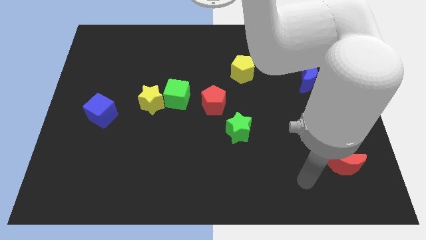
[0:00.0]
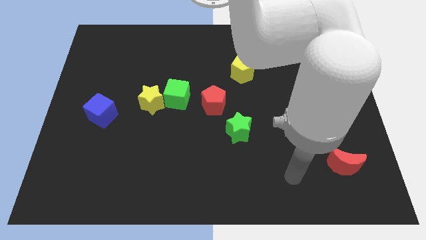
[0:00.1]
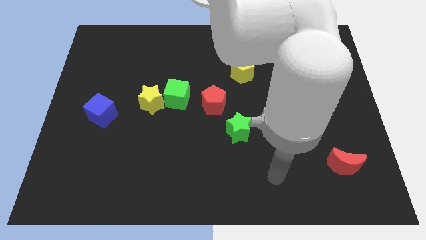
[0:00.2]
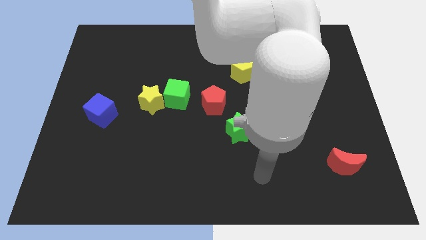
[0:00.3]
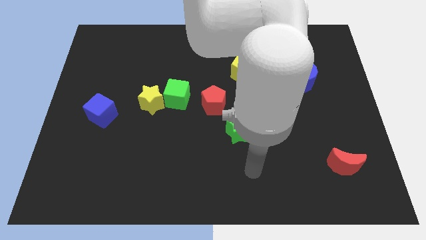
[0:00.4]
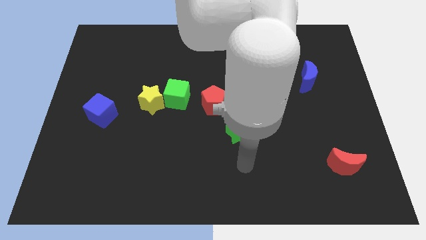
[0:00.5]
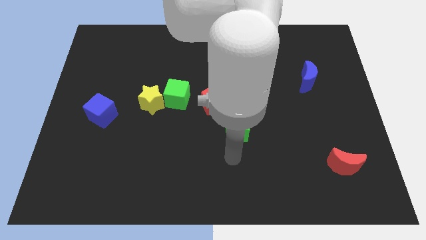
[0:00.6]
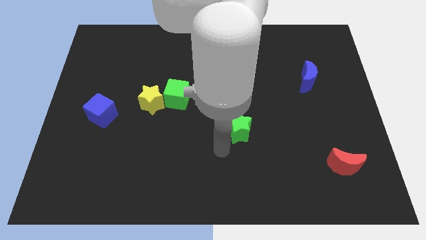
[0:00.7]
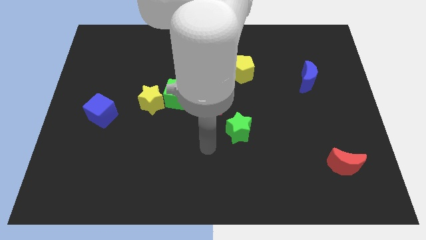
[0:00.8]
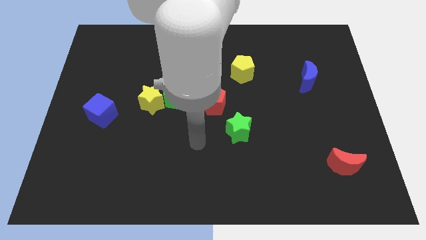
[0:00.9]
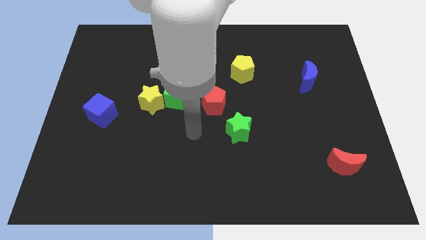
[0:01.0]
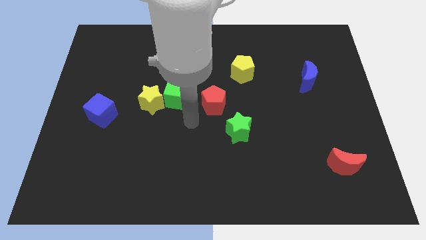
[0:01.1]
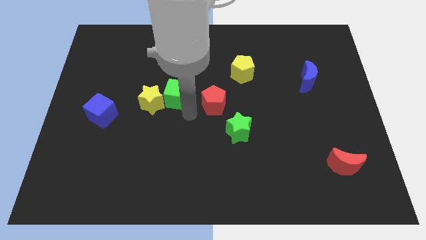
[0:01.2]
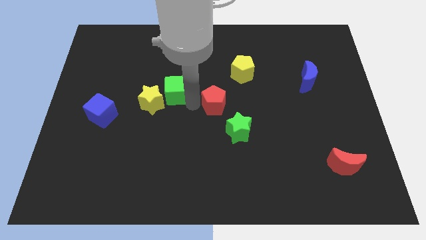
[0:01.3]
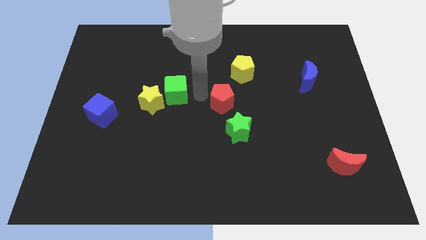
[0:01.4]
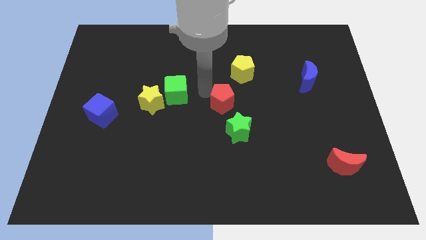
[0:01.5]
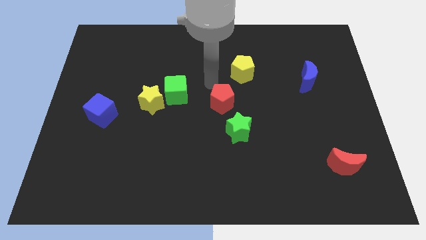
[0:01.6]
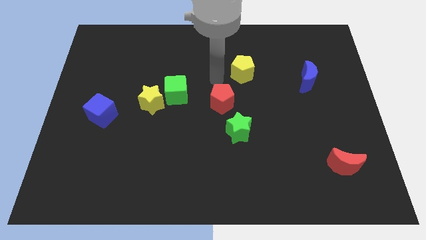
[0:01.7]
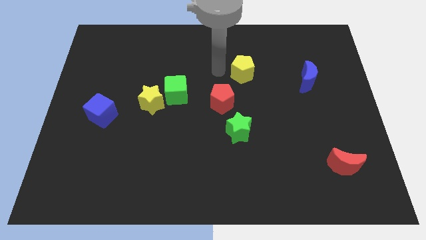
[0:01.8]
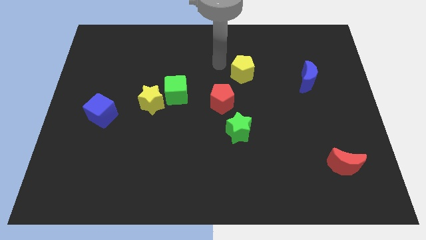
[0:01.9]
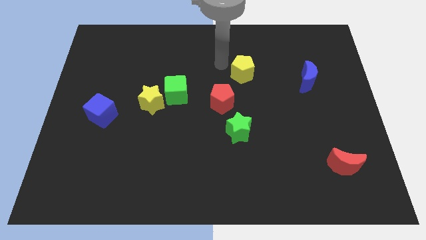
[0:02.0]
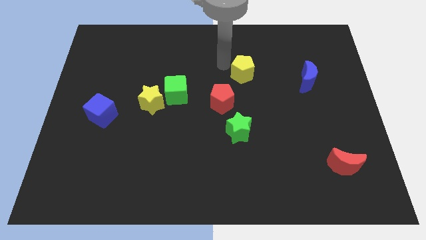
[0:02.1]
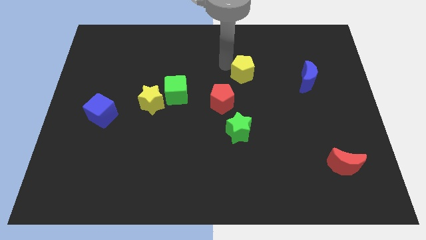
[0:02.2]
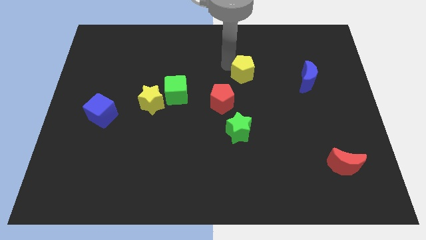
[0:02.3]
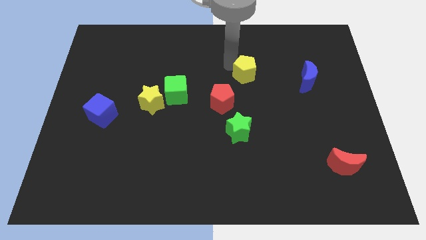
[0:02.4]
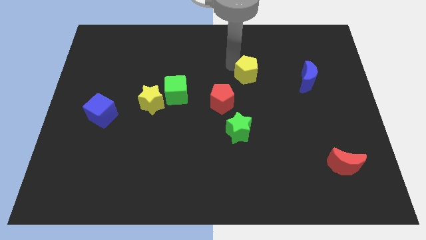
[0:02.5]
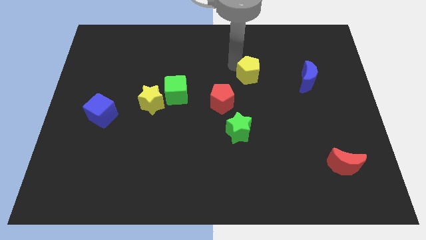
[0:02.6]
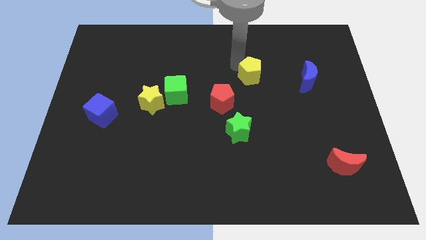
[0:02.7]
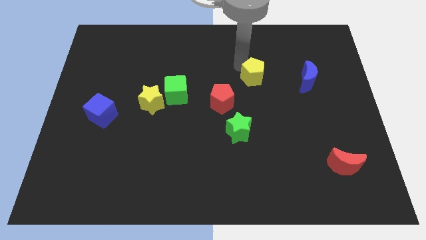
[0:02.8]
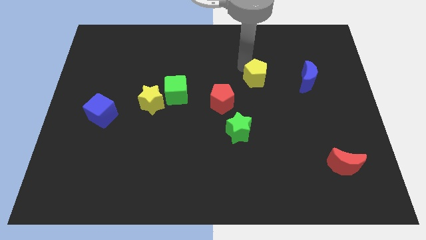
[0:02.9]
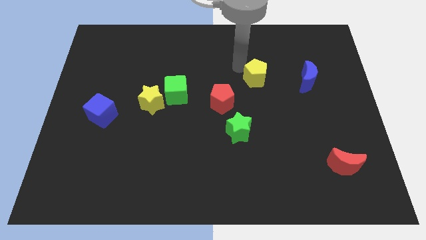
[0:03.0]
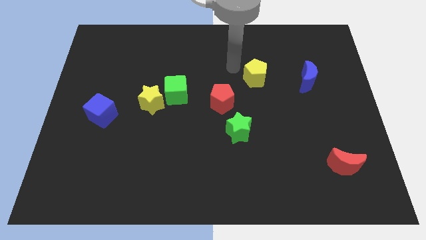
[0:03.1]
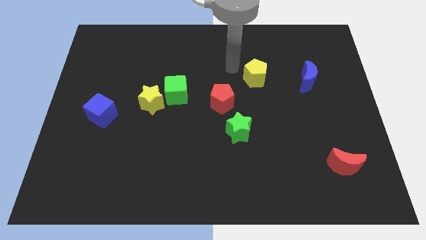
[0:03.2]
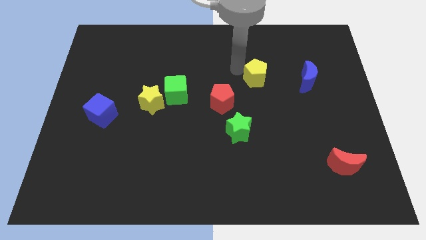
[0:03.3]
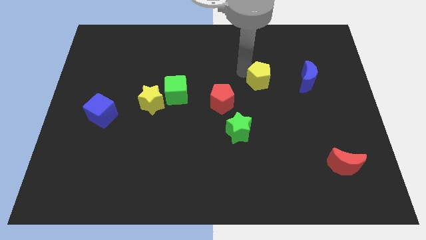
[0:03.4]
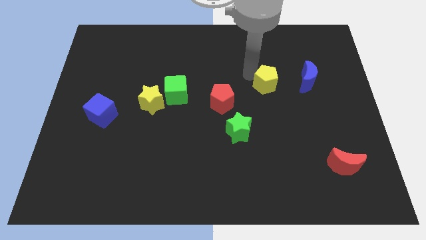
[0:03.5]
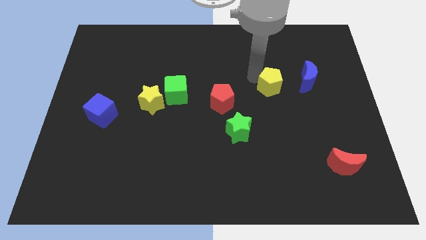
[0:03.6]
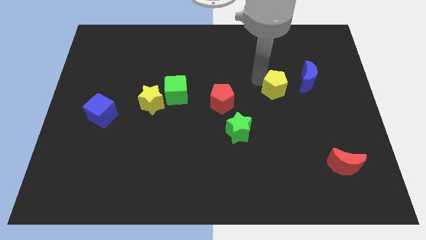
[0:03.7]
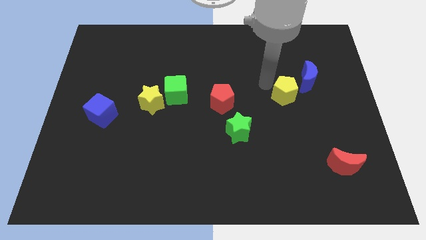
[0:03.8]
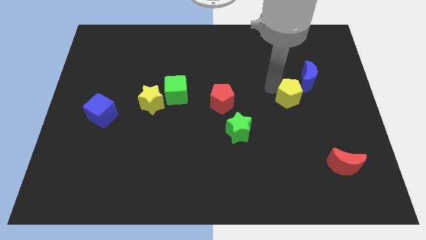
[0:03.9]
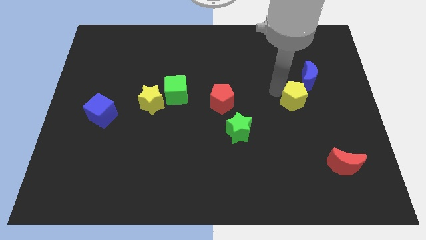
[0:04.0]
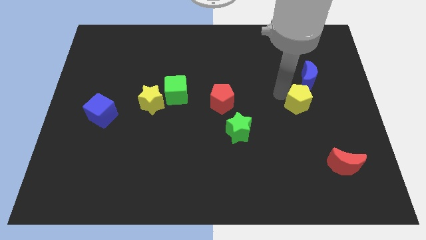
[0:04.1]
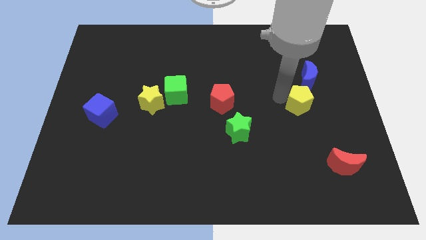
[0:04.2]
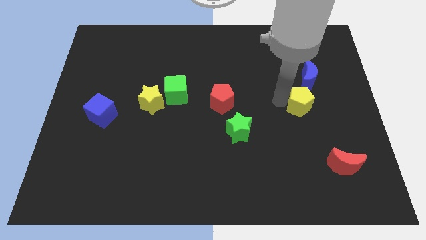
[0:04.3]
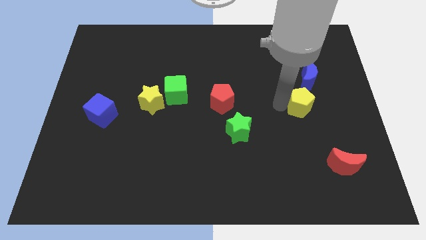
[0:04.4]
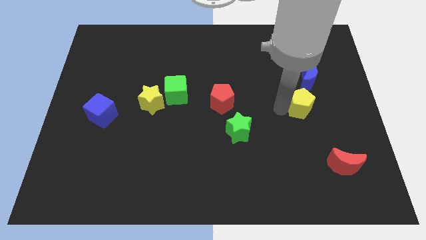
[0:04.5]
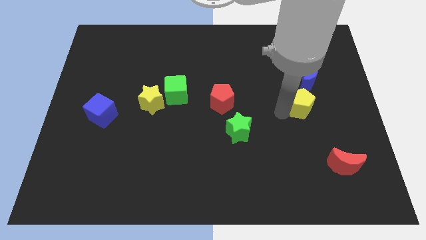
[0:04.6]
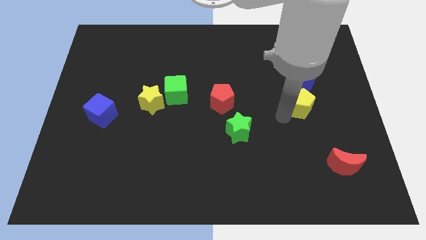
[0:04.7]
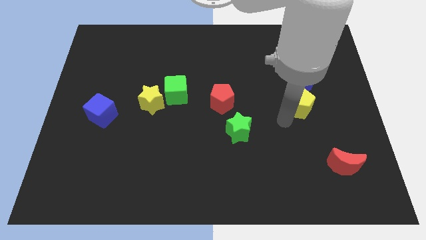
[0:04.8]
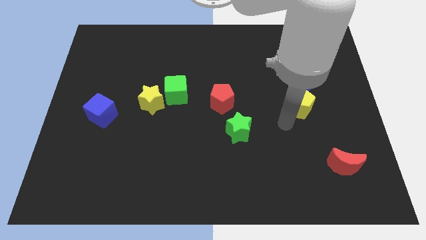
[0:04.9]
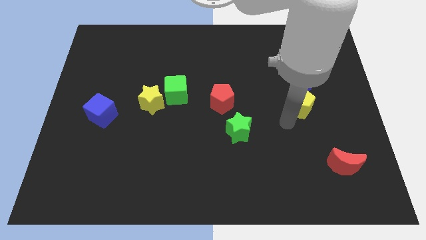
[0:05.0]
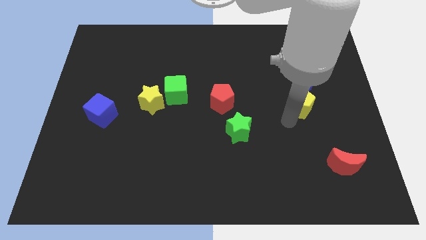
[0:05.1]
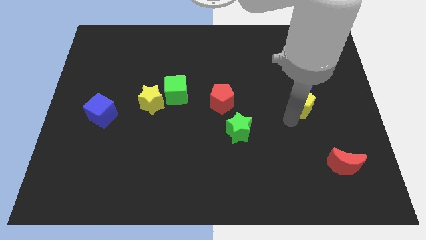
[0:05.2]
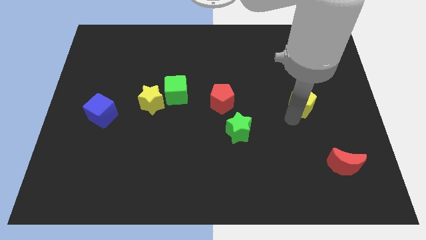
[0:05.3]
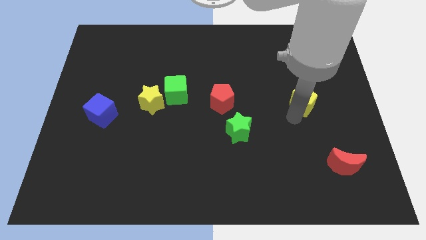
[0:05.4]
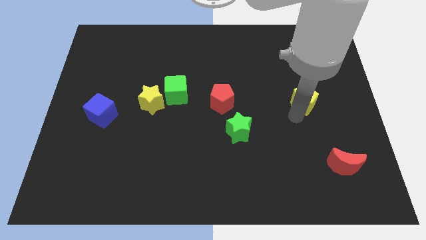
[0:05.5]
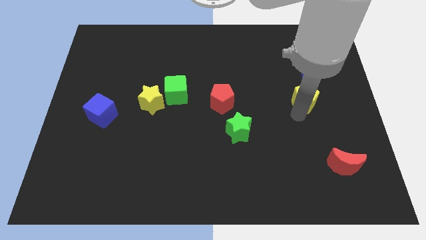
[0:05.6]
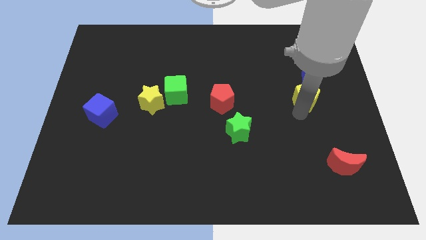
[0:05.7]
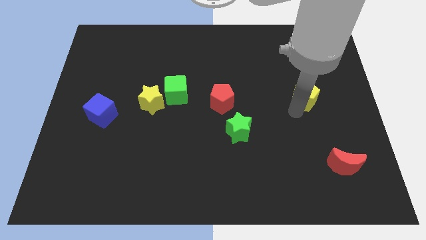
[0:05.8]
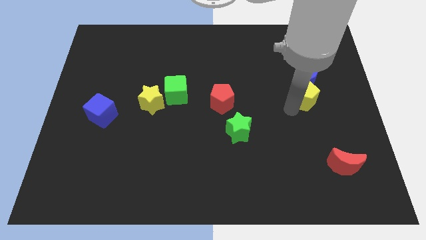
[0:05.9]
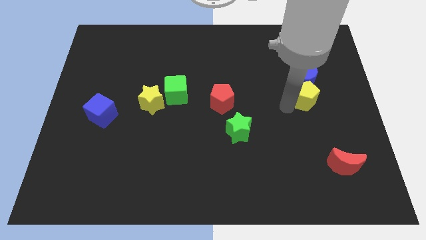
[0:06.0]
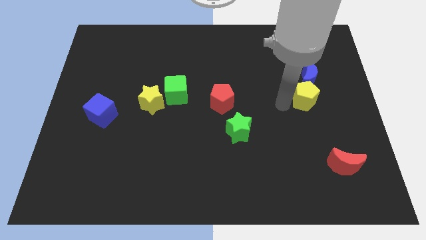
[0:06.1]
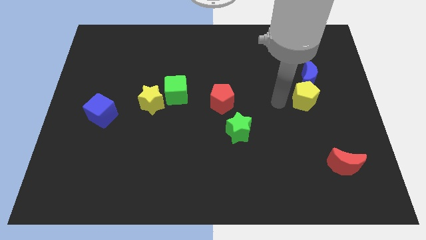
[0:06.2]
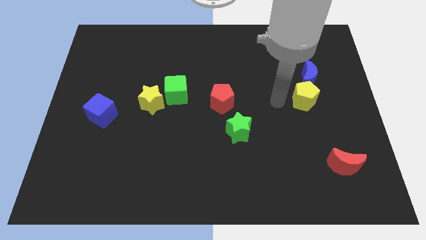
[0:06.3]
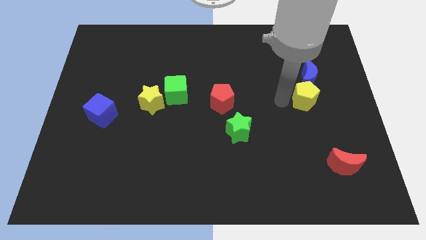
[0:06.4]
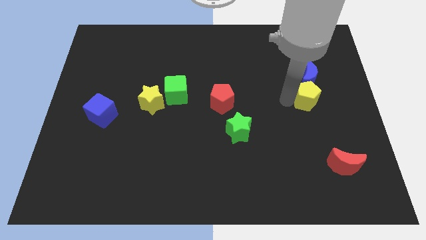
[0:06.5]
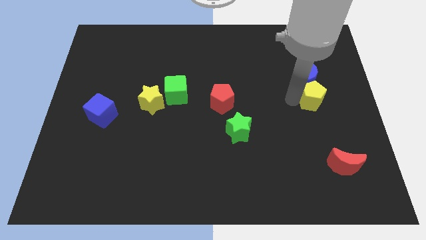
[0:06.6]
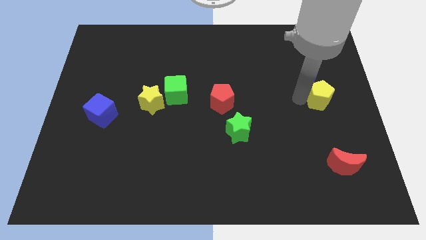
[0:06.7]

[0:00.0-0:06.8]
put the yellow pentagon to the center right

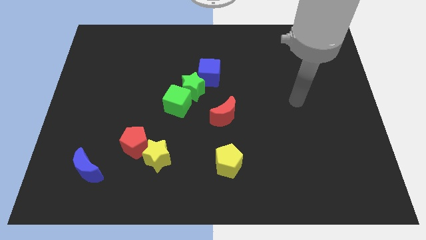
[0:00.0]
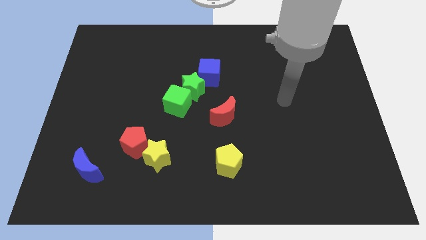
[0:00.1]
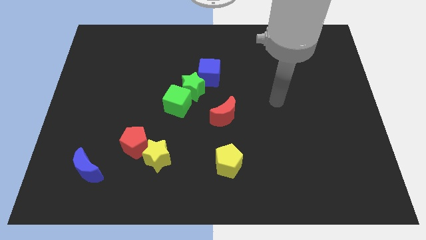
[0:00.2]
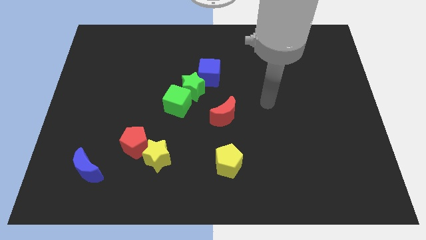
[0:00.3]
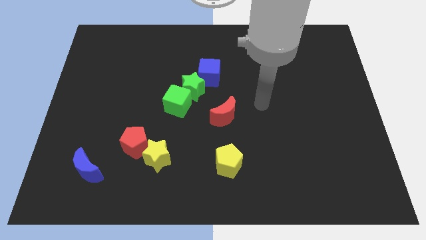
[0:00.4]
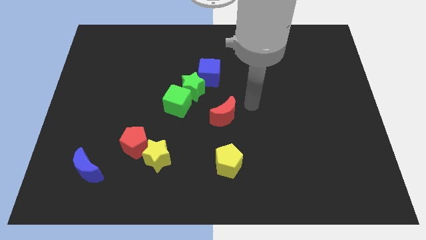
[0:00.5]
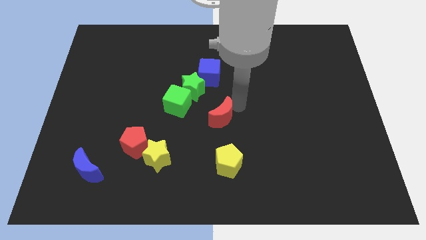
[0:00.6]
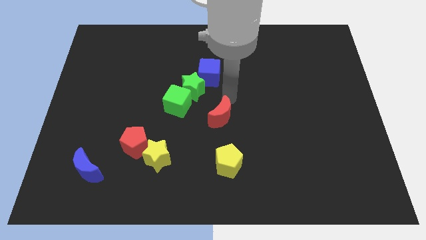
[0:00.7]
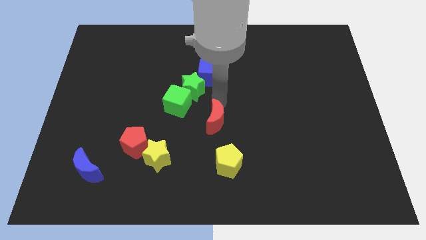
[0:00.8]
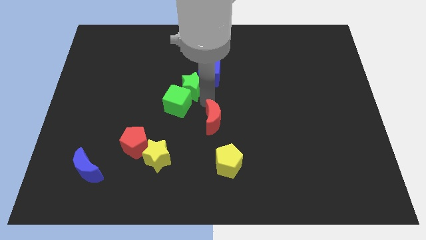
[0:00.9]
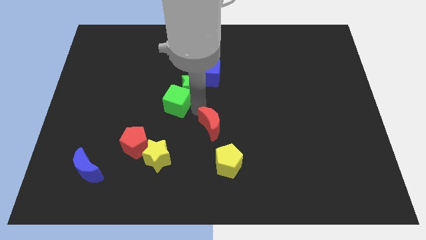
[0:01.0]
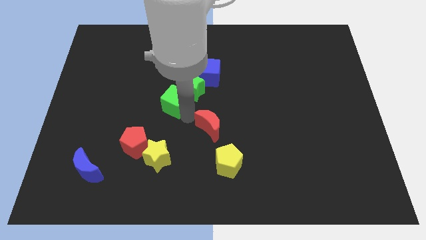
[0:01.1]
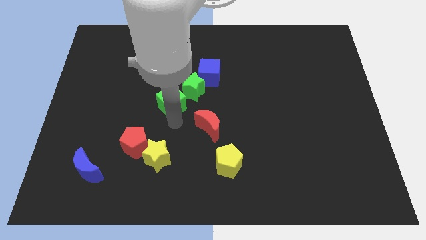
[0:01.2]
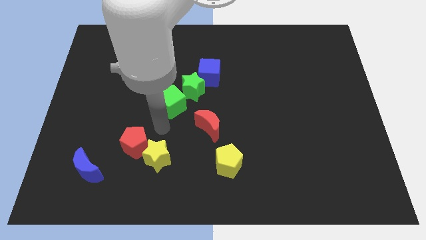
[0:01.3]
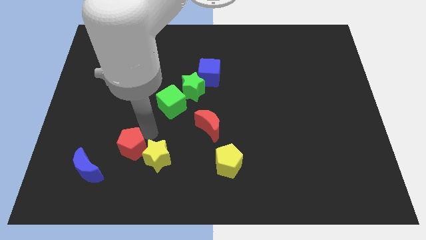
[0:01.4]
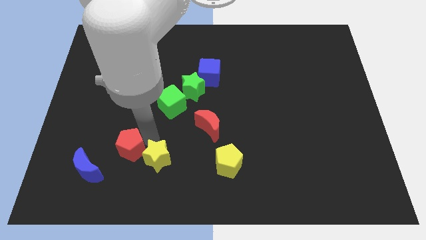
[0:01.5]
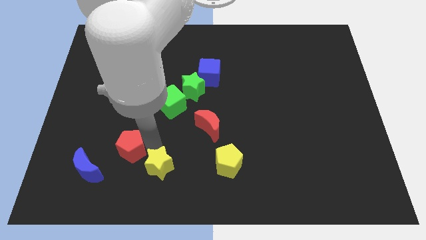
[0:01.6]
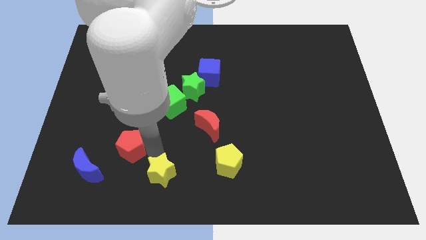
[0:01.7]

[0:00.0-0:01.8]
move the yellow star to the bottom side
